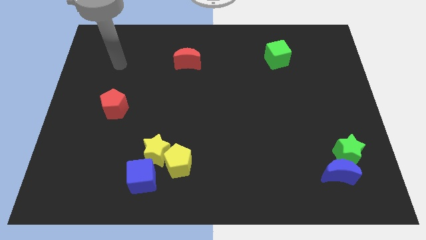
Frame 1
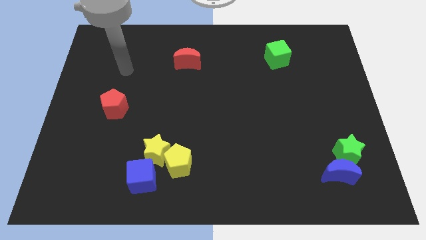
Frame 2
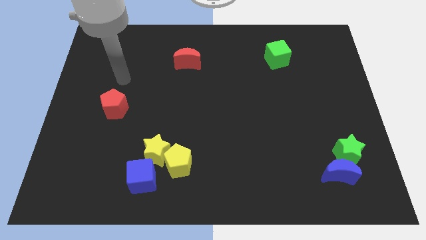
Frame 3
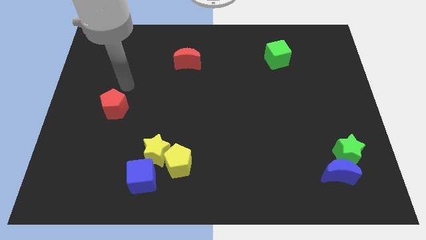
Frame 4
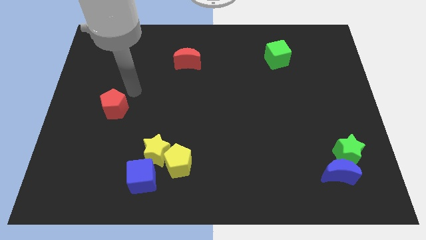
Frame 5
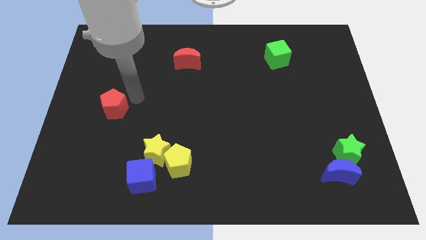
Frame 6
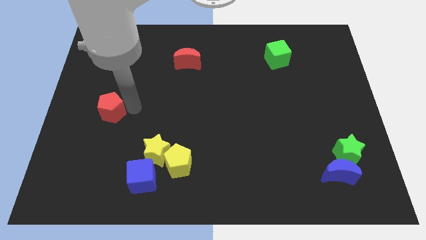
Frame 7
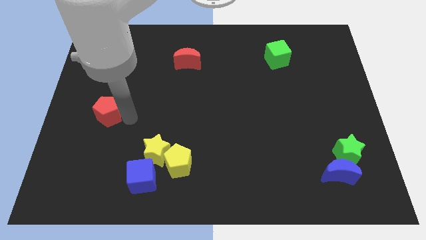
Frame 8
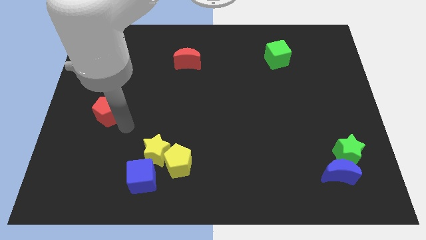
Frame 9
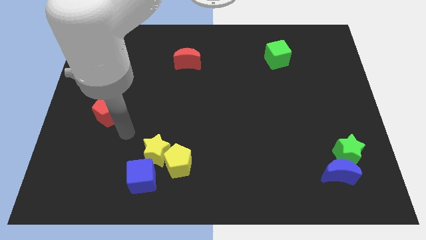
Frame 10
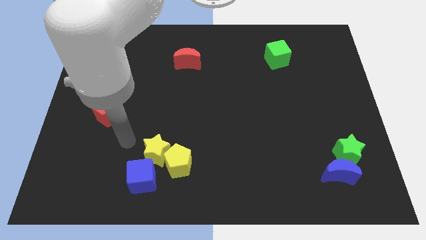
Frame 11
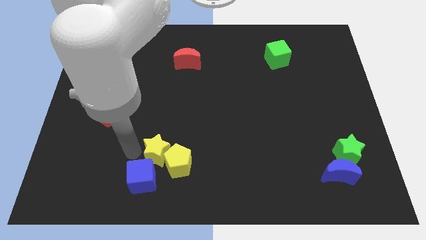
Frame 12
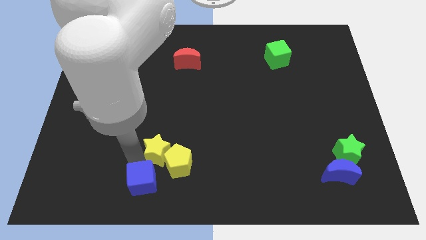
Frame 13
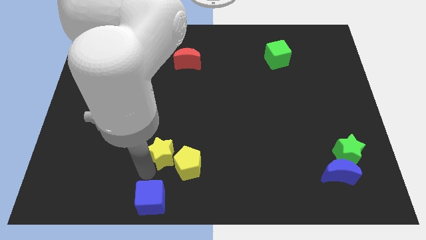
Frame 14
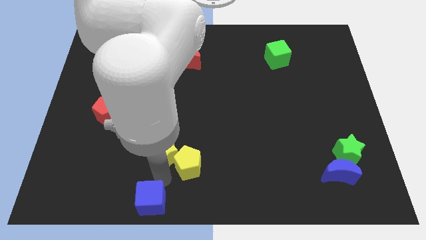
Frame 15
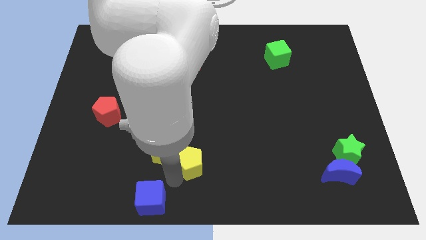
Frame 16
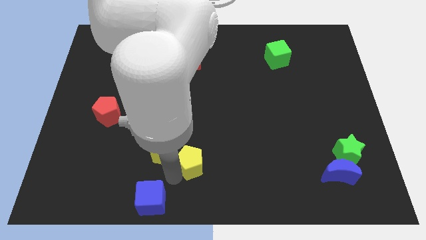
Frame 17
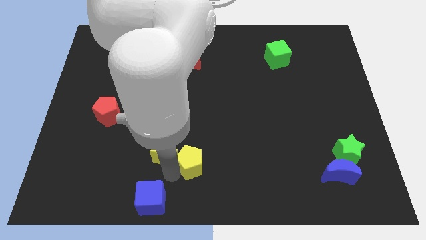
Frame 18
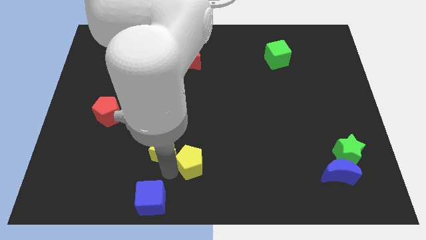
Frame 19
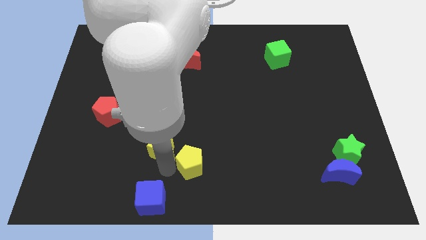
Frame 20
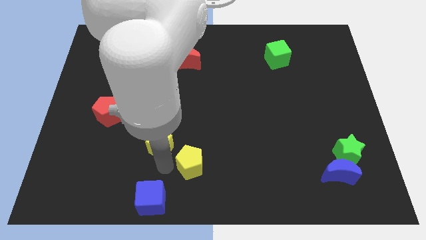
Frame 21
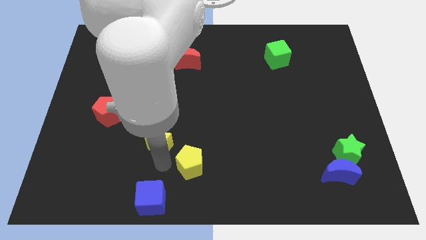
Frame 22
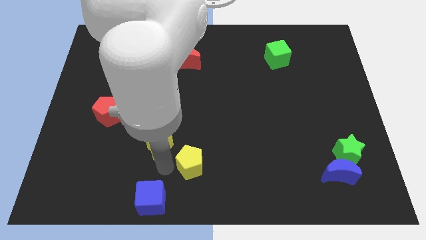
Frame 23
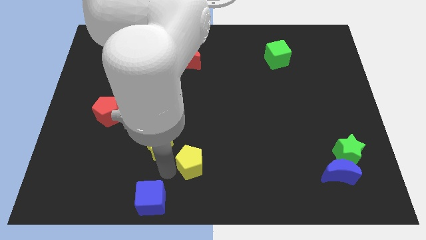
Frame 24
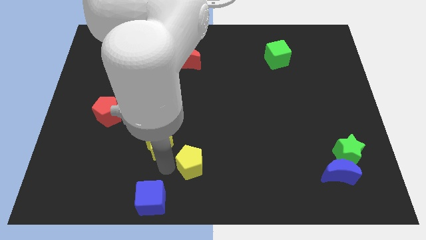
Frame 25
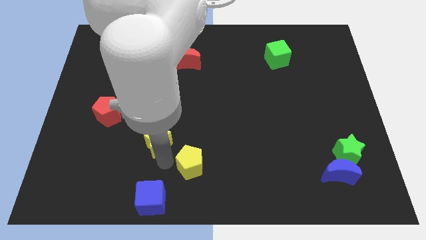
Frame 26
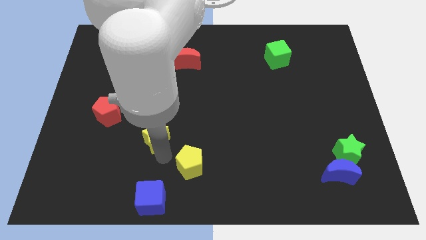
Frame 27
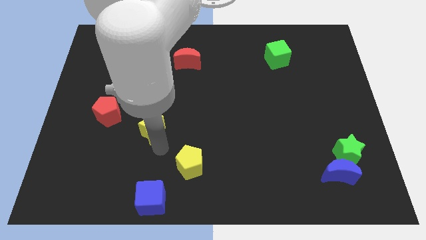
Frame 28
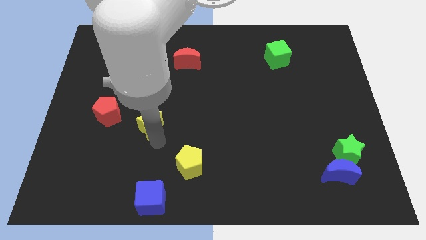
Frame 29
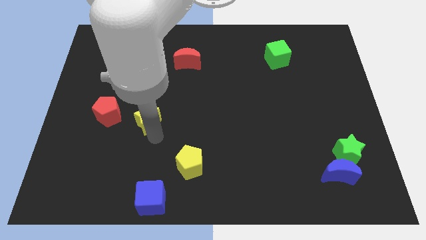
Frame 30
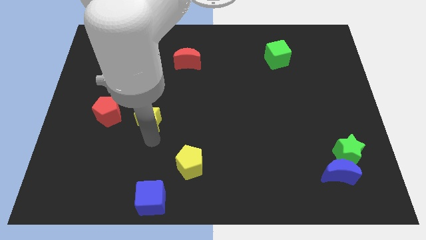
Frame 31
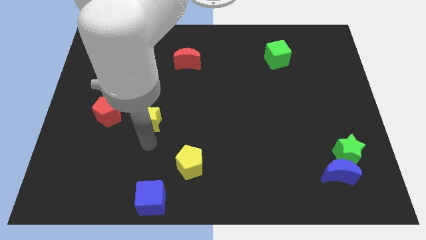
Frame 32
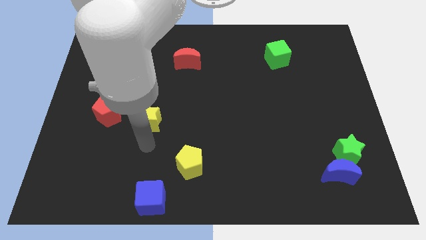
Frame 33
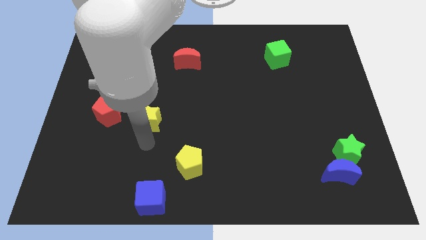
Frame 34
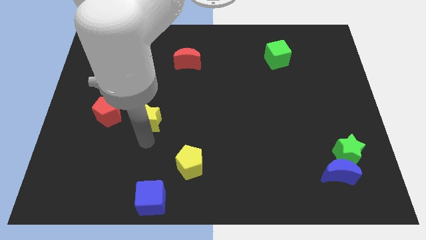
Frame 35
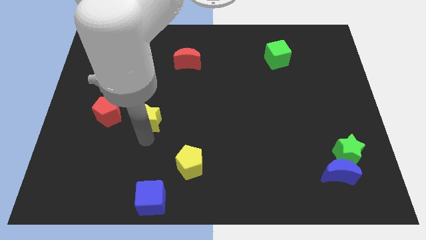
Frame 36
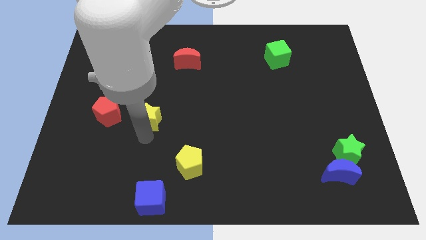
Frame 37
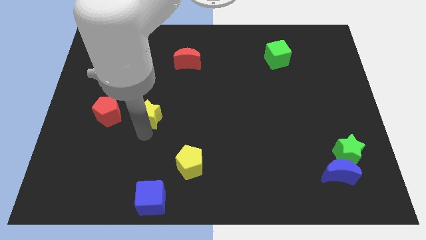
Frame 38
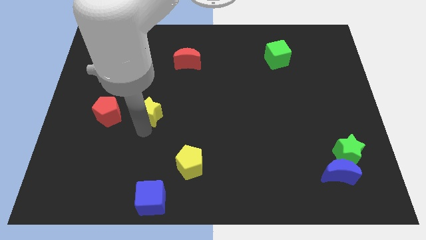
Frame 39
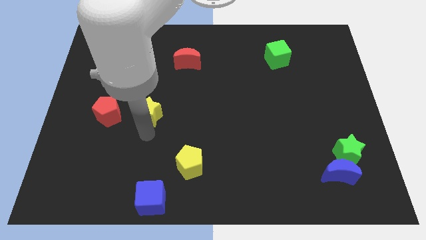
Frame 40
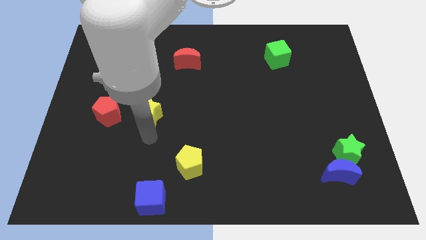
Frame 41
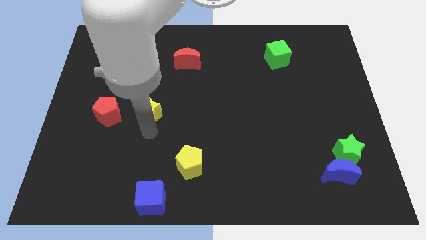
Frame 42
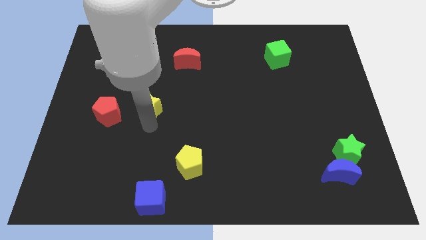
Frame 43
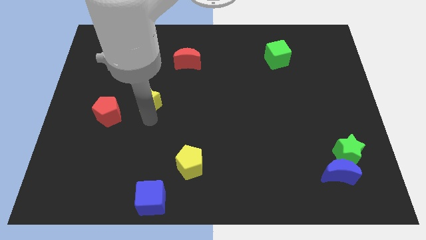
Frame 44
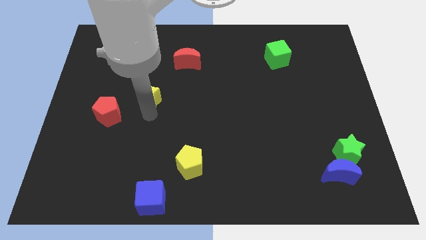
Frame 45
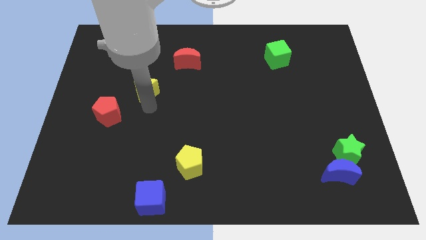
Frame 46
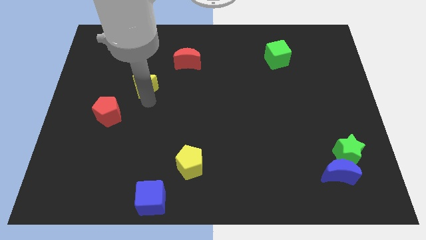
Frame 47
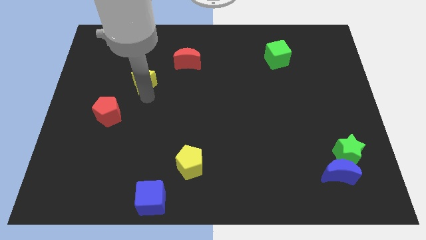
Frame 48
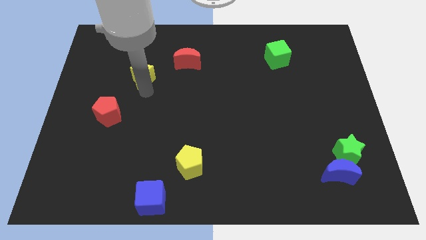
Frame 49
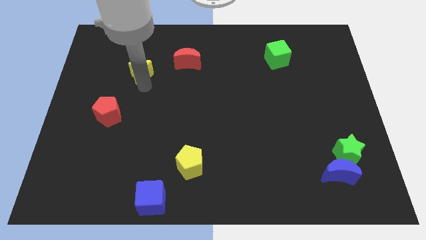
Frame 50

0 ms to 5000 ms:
push the yellow star to the left side of the red moon

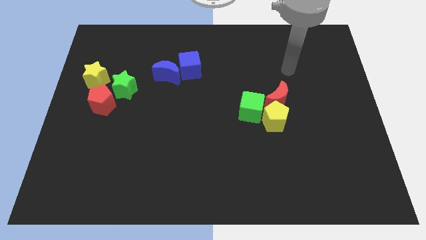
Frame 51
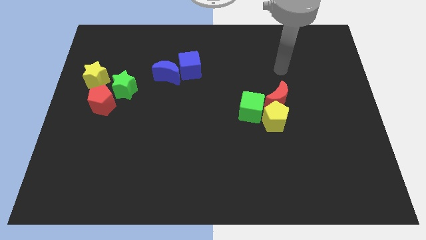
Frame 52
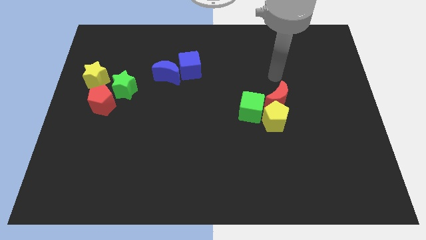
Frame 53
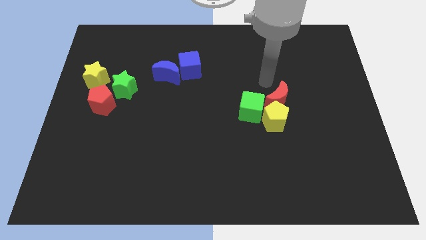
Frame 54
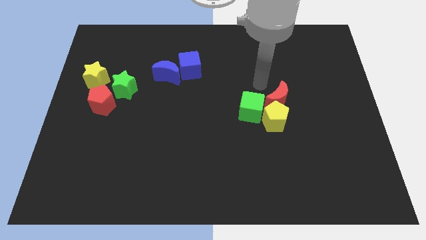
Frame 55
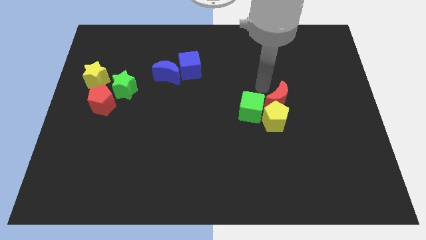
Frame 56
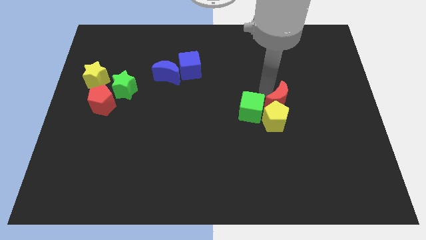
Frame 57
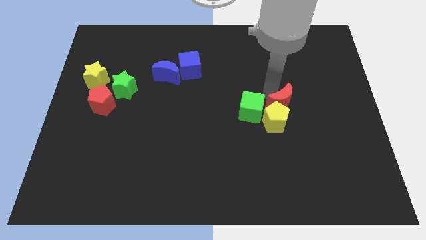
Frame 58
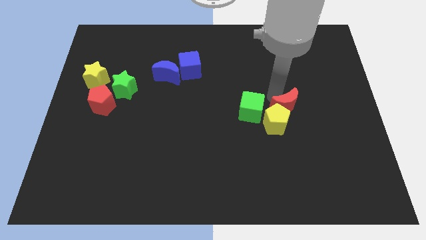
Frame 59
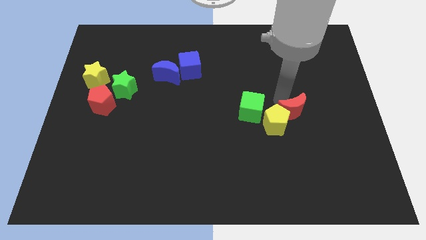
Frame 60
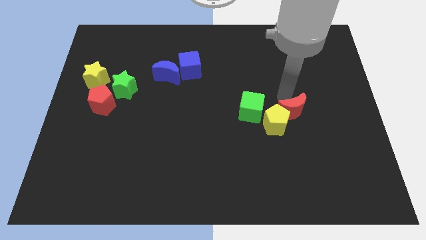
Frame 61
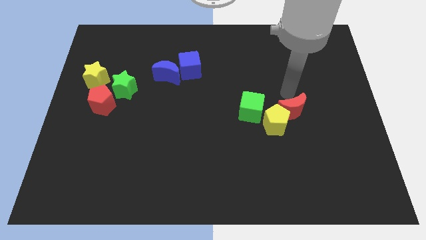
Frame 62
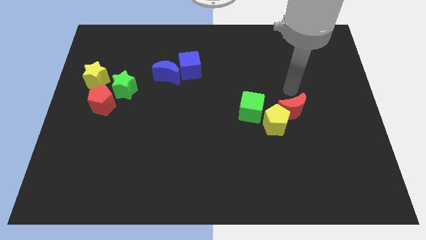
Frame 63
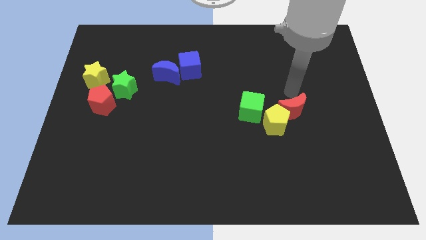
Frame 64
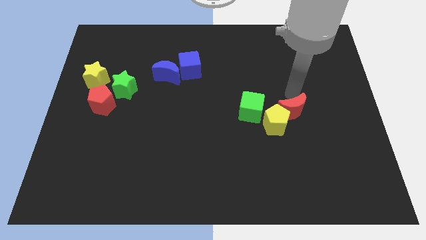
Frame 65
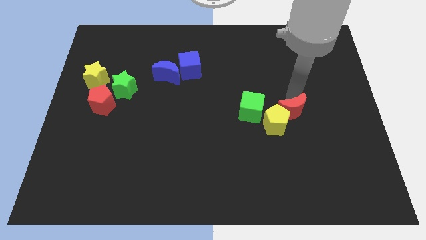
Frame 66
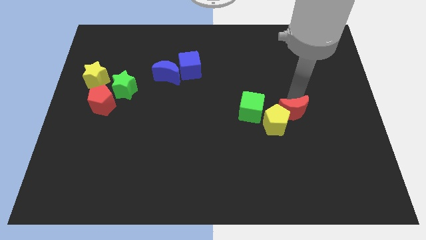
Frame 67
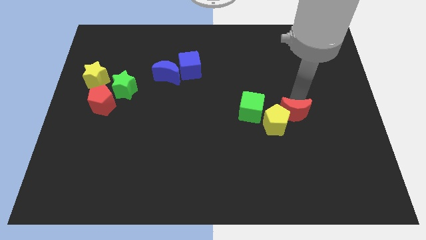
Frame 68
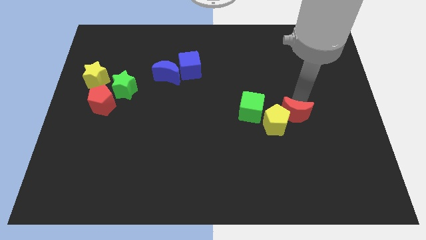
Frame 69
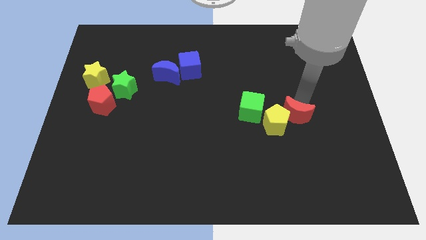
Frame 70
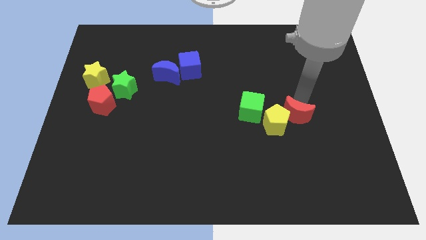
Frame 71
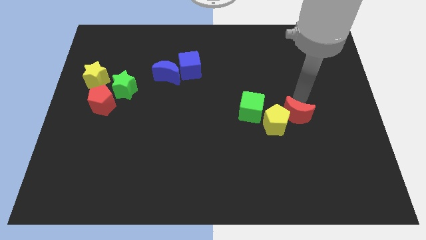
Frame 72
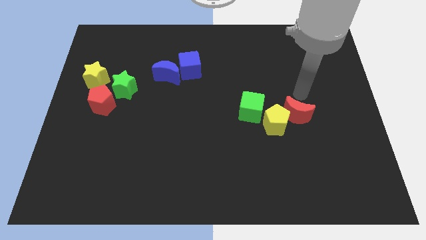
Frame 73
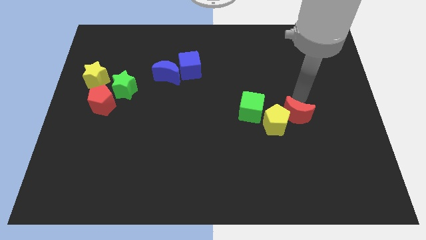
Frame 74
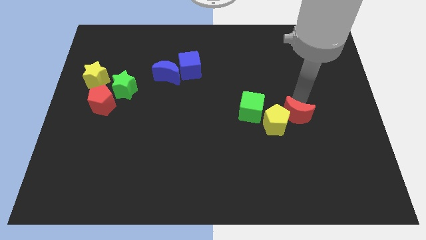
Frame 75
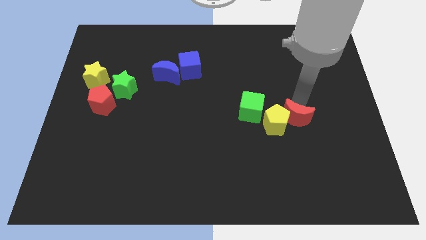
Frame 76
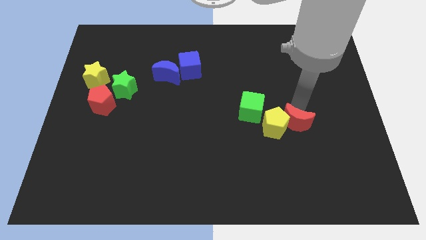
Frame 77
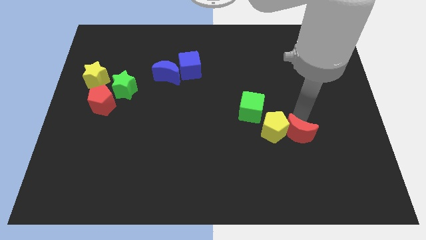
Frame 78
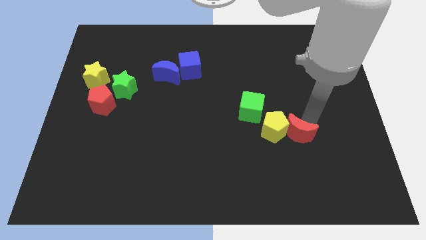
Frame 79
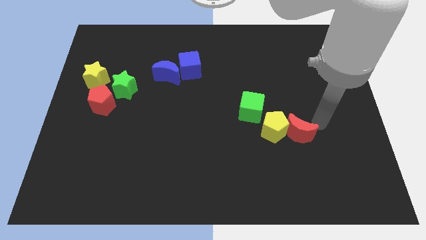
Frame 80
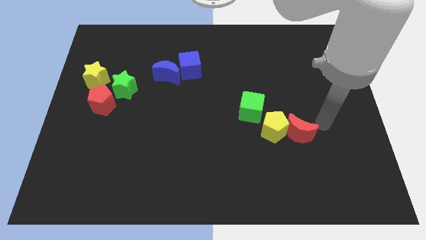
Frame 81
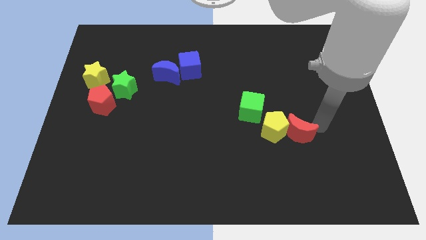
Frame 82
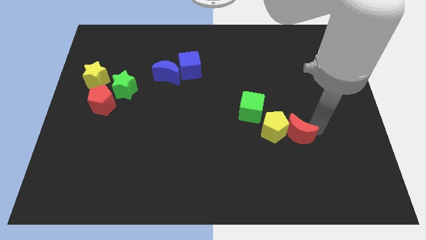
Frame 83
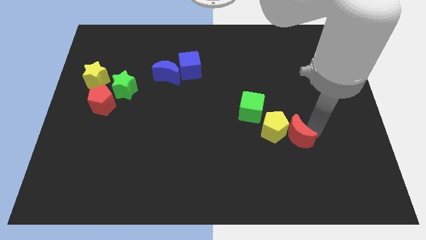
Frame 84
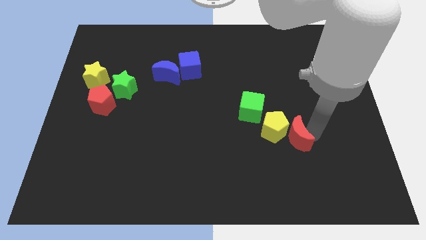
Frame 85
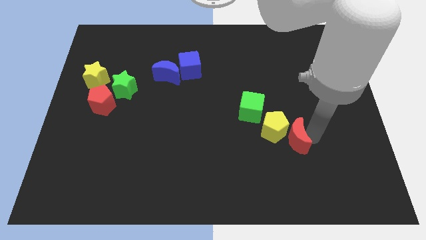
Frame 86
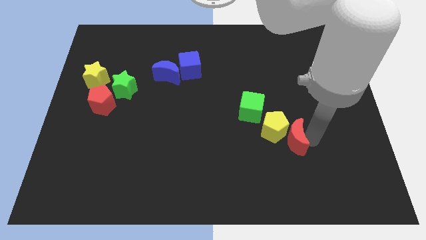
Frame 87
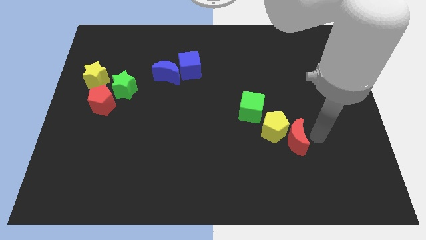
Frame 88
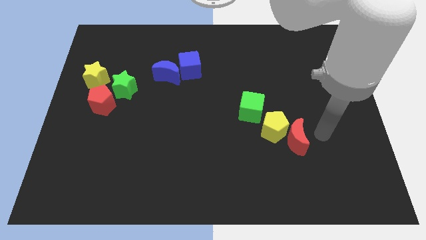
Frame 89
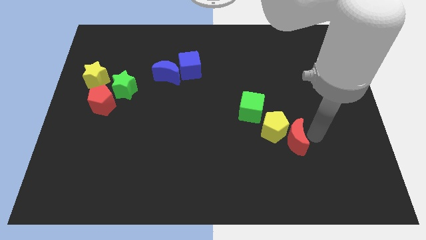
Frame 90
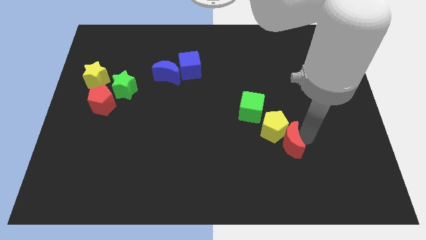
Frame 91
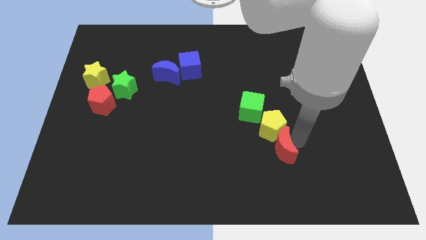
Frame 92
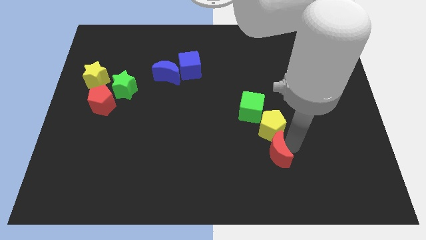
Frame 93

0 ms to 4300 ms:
put the red moon to the bottom of the green cube
